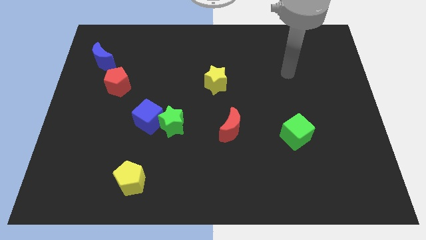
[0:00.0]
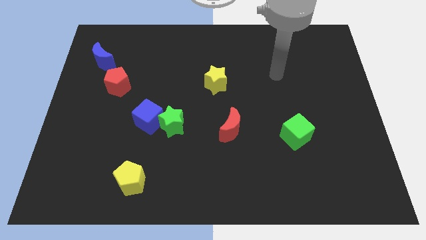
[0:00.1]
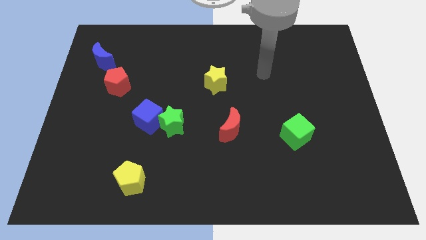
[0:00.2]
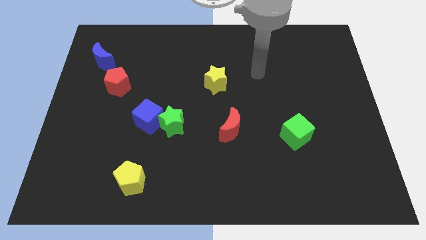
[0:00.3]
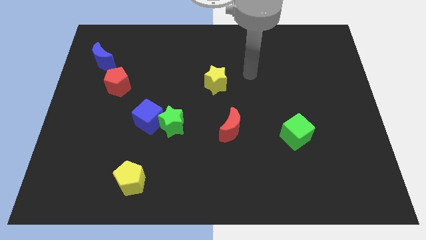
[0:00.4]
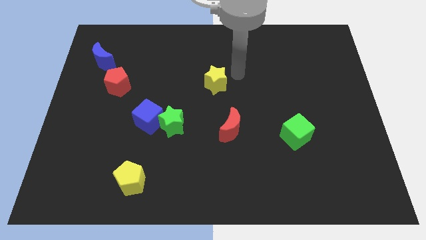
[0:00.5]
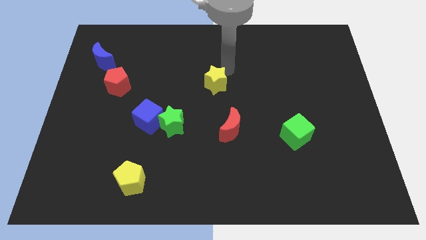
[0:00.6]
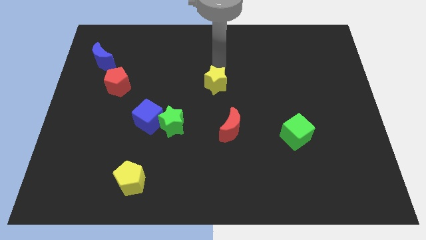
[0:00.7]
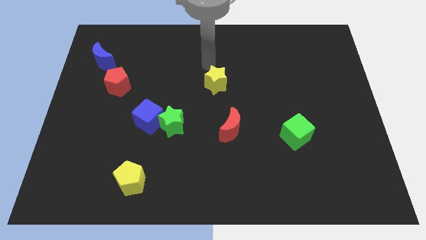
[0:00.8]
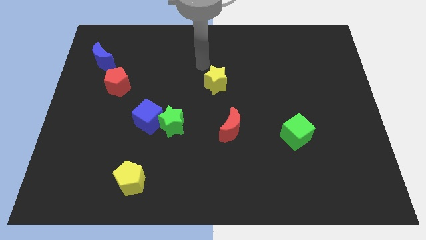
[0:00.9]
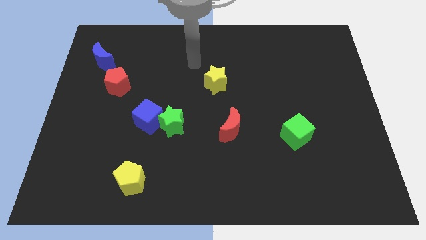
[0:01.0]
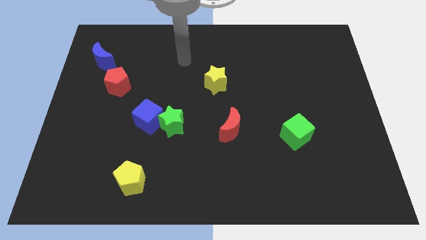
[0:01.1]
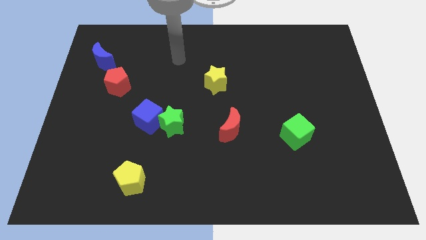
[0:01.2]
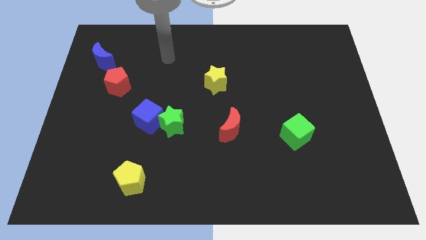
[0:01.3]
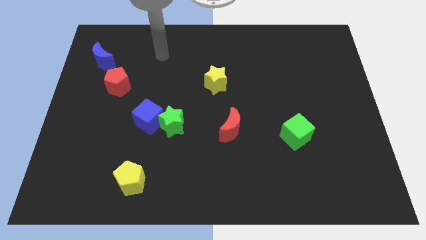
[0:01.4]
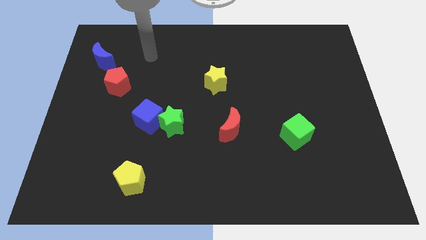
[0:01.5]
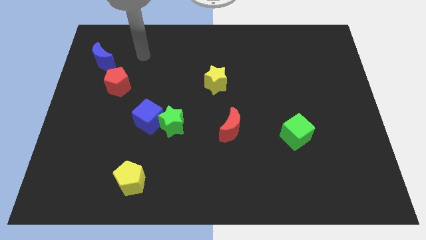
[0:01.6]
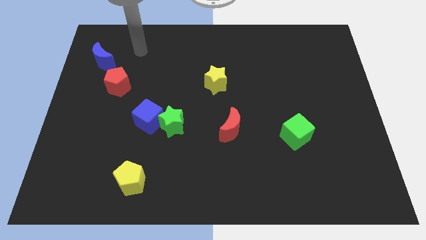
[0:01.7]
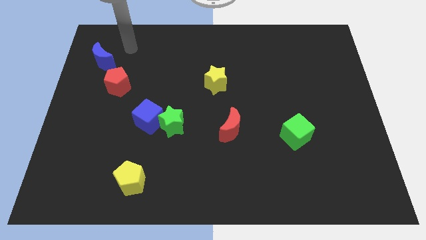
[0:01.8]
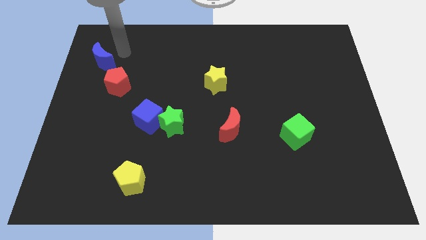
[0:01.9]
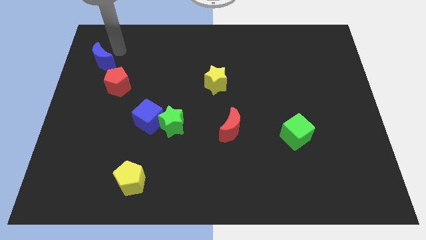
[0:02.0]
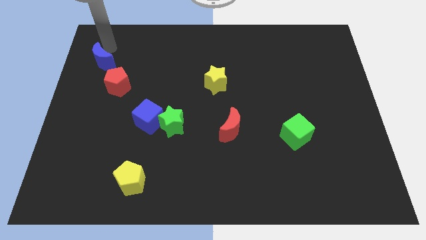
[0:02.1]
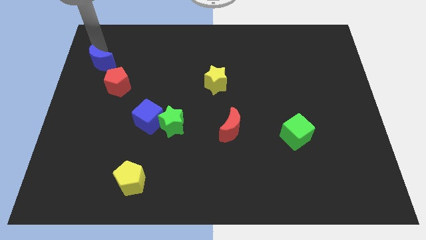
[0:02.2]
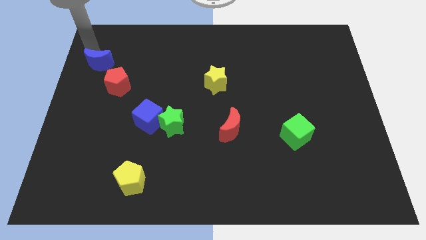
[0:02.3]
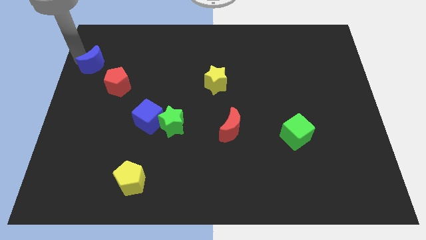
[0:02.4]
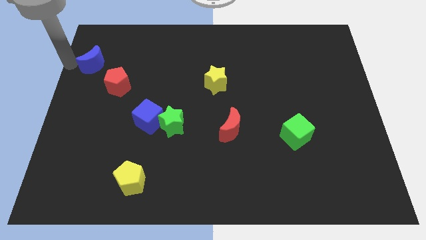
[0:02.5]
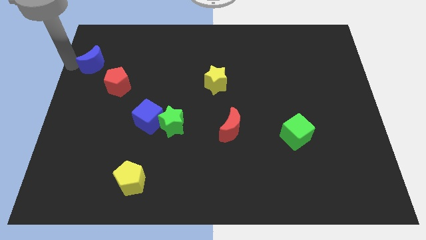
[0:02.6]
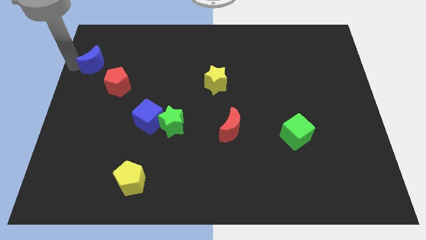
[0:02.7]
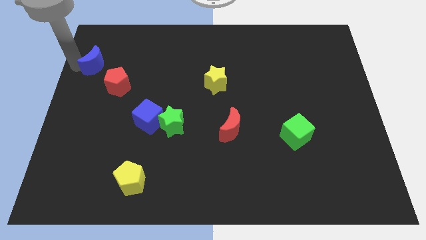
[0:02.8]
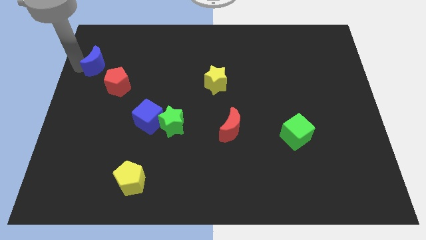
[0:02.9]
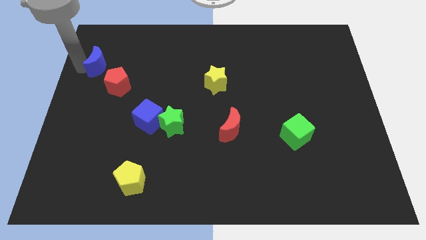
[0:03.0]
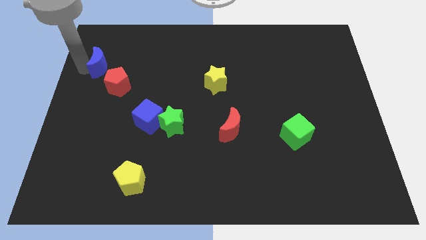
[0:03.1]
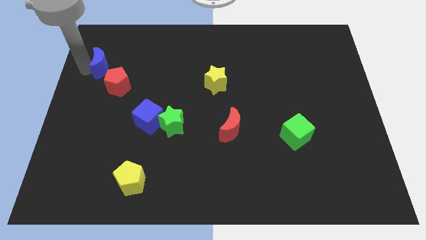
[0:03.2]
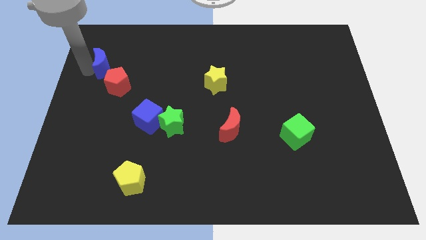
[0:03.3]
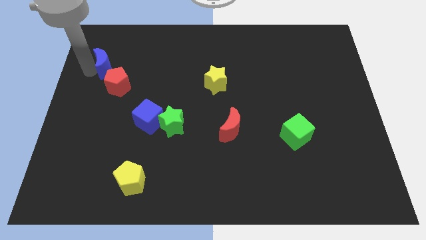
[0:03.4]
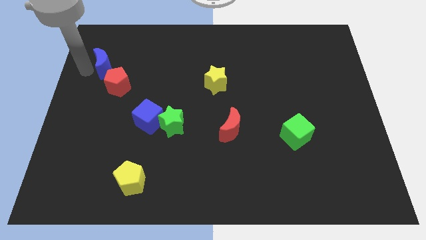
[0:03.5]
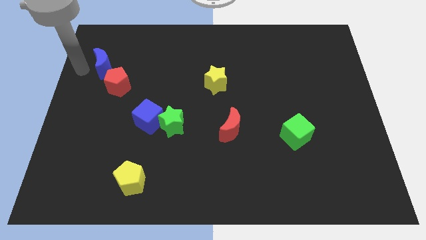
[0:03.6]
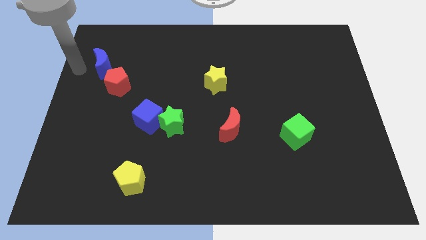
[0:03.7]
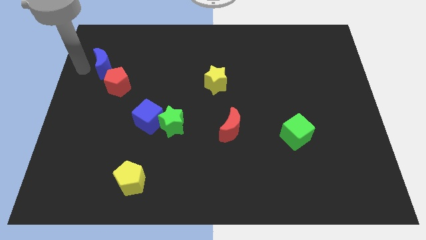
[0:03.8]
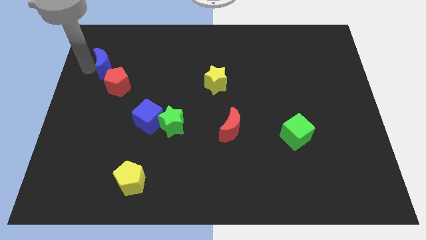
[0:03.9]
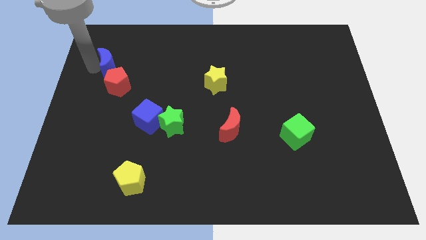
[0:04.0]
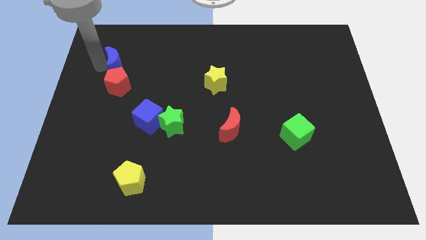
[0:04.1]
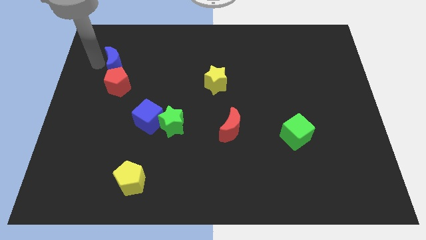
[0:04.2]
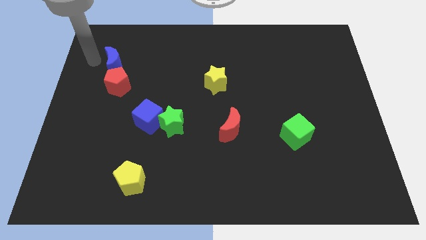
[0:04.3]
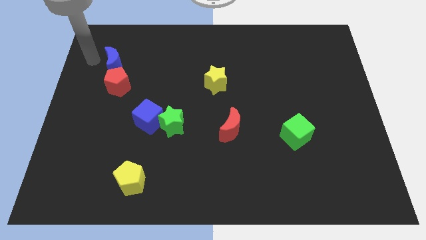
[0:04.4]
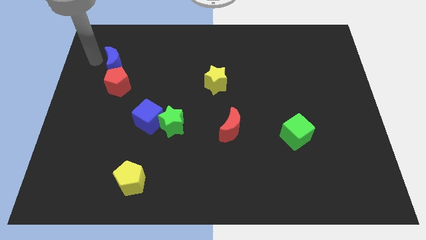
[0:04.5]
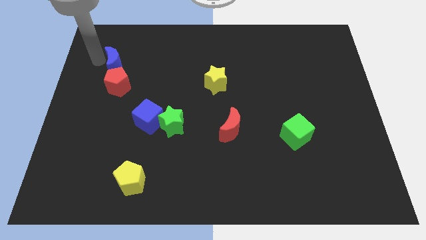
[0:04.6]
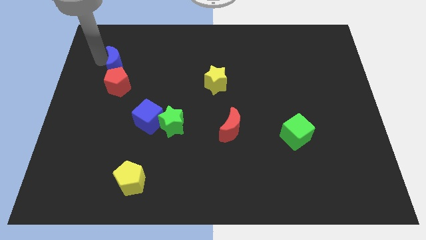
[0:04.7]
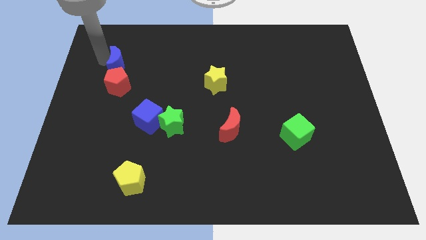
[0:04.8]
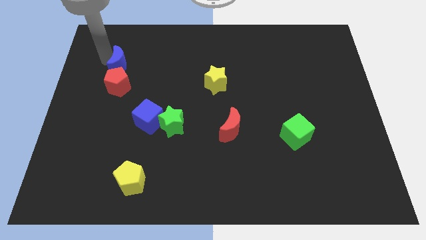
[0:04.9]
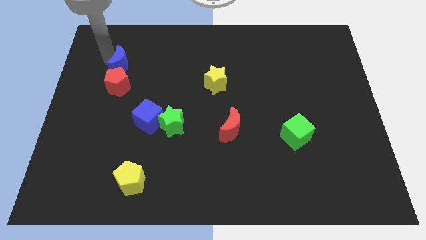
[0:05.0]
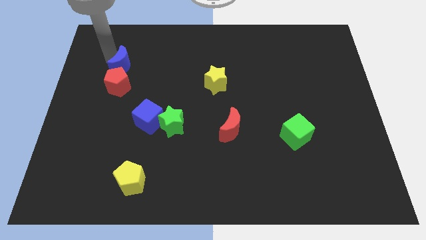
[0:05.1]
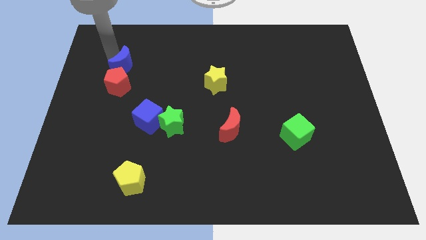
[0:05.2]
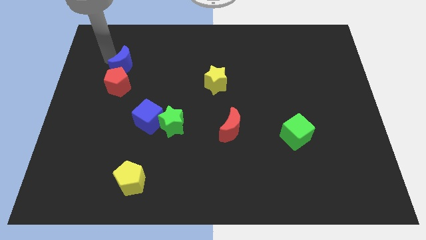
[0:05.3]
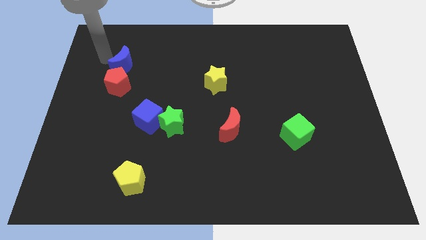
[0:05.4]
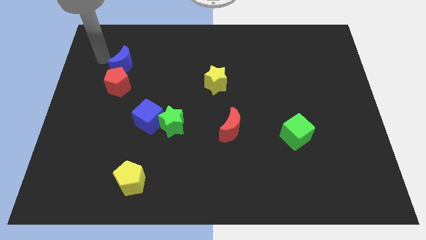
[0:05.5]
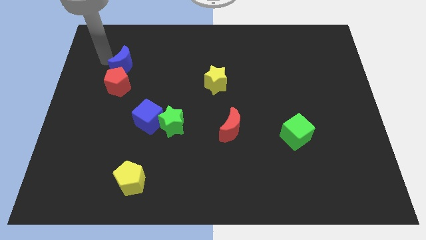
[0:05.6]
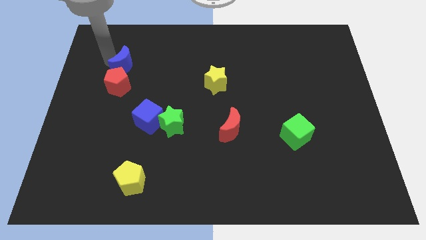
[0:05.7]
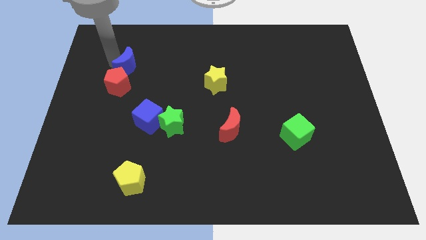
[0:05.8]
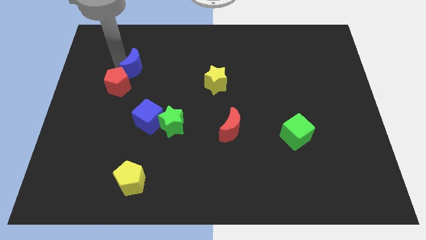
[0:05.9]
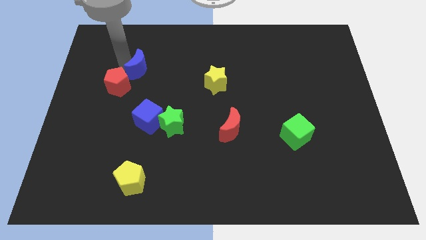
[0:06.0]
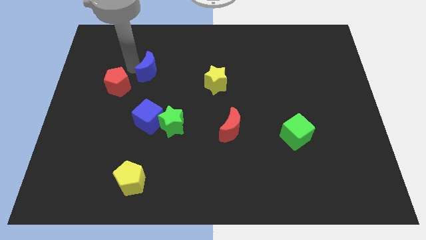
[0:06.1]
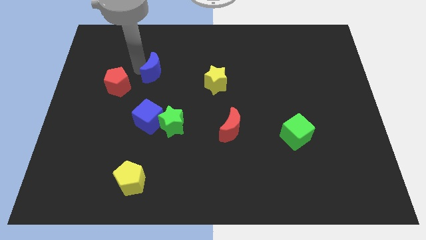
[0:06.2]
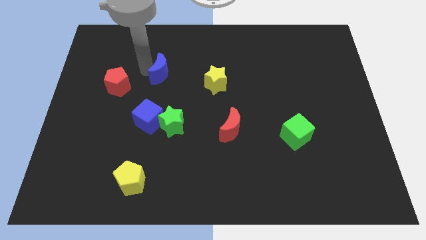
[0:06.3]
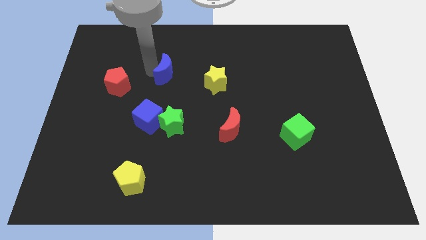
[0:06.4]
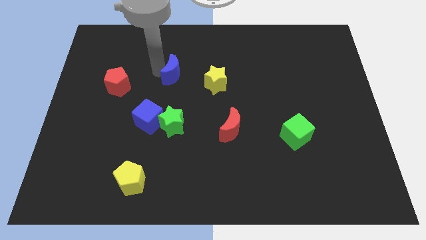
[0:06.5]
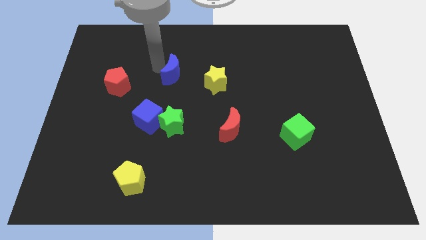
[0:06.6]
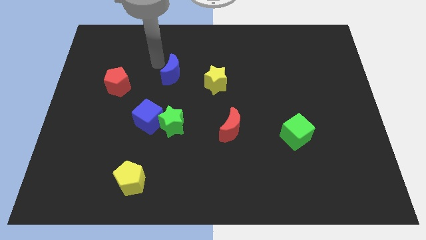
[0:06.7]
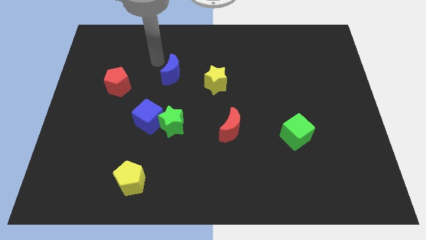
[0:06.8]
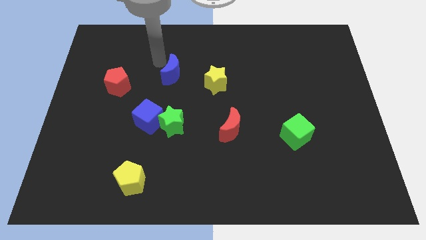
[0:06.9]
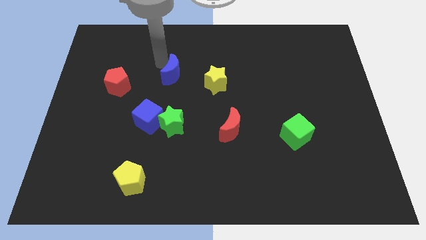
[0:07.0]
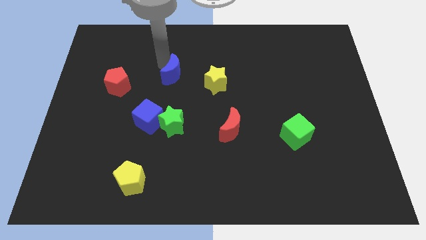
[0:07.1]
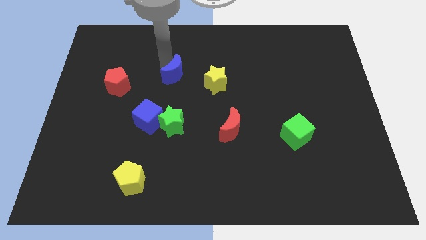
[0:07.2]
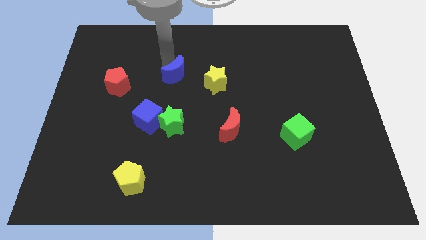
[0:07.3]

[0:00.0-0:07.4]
put the blue moon to the middle
